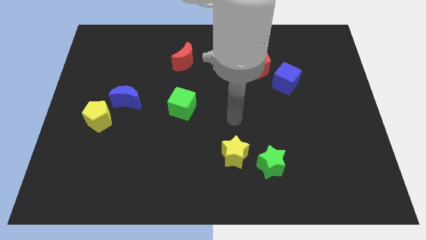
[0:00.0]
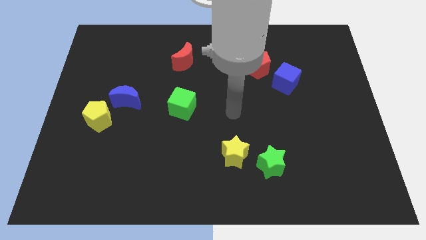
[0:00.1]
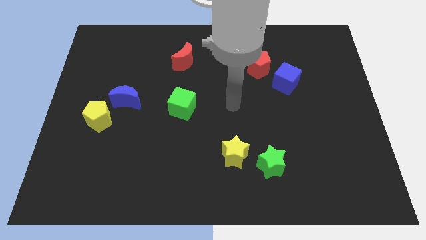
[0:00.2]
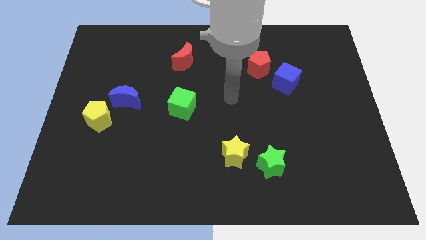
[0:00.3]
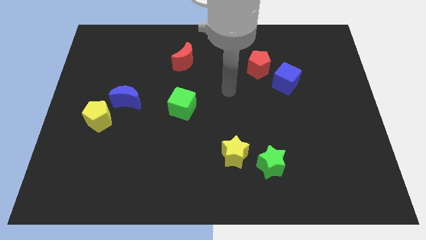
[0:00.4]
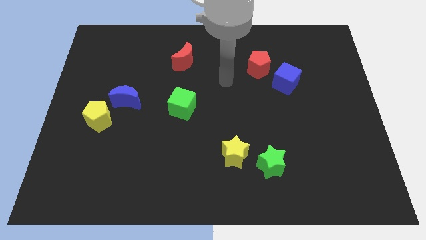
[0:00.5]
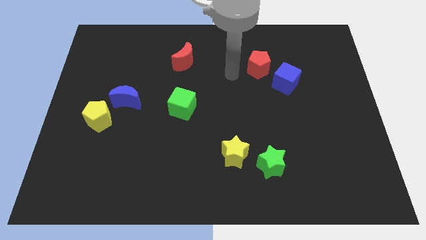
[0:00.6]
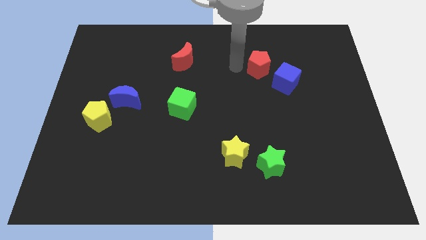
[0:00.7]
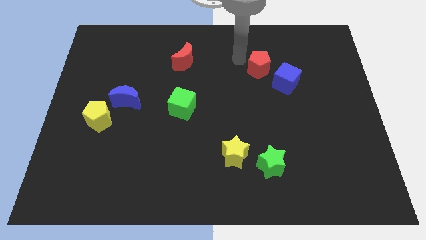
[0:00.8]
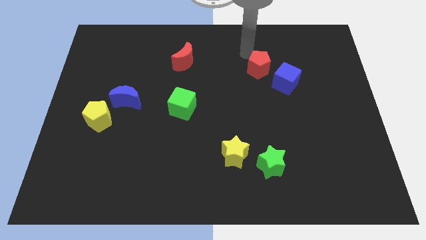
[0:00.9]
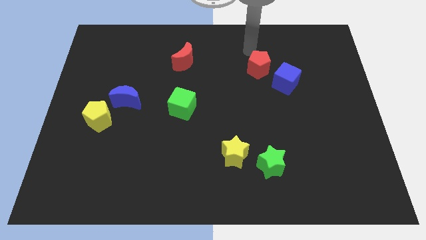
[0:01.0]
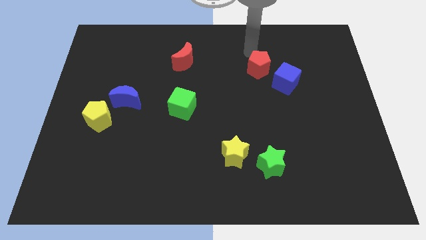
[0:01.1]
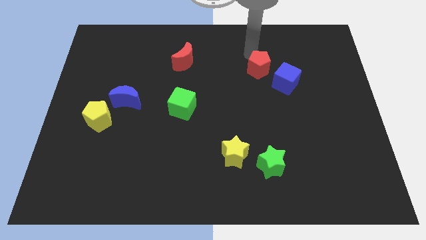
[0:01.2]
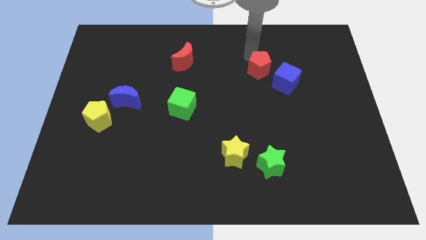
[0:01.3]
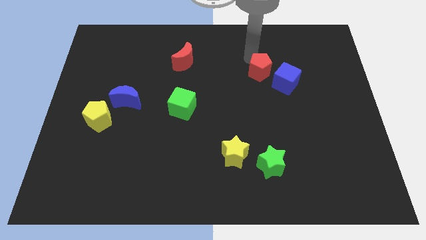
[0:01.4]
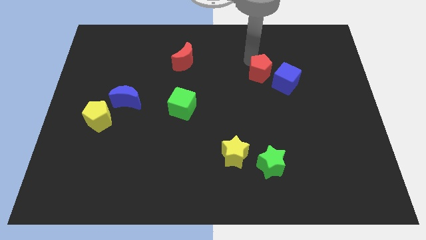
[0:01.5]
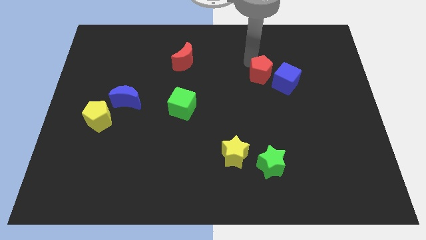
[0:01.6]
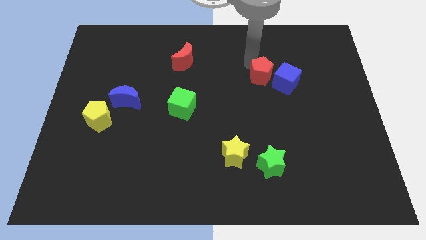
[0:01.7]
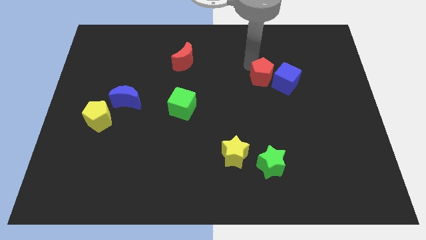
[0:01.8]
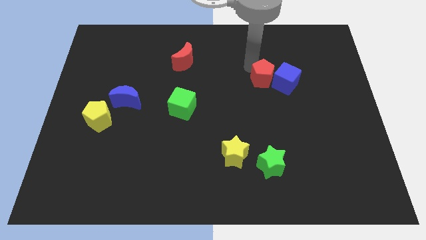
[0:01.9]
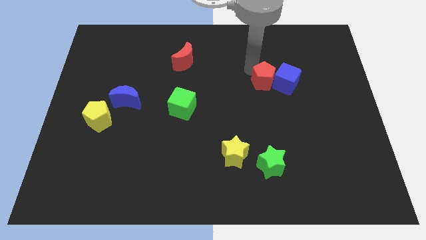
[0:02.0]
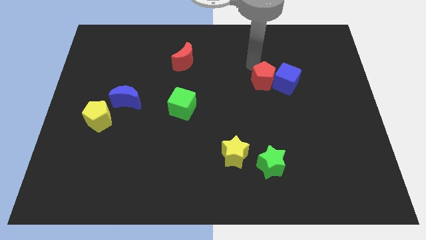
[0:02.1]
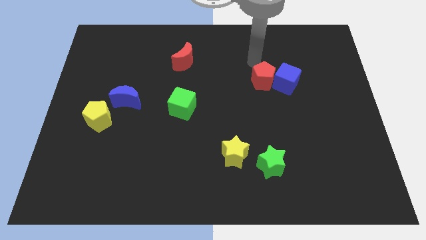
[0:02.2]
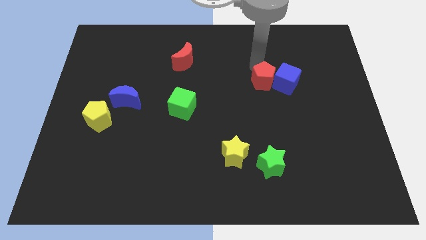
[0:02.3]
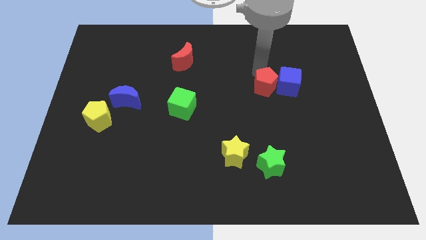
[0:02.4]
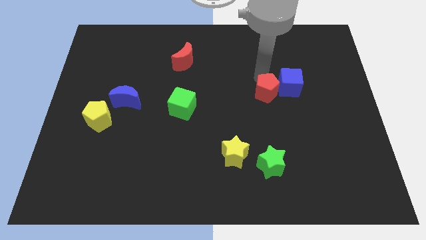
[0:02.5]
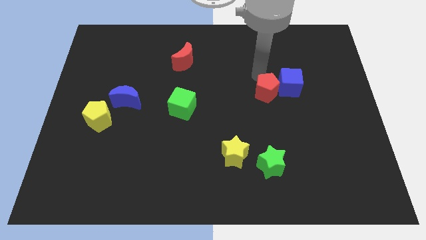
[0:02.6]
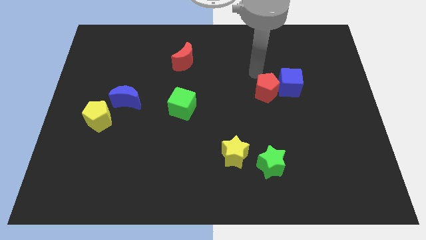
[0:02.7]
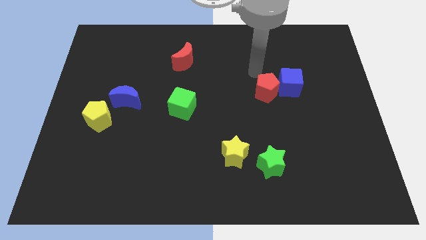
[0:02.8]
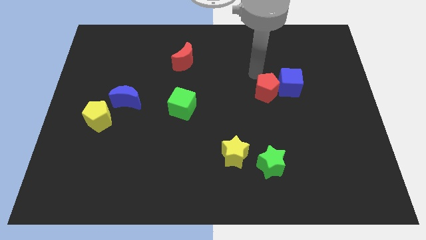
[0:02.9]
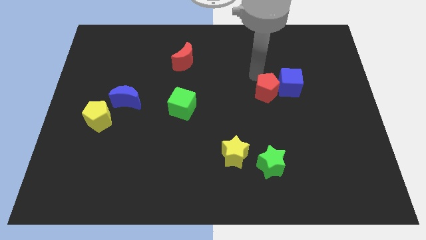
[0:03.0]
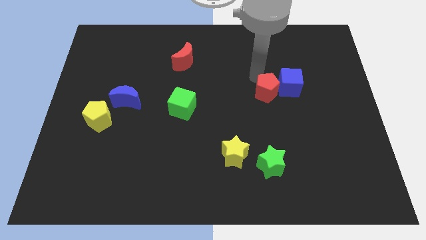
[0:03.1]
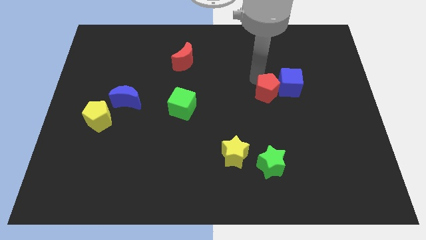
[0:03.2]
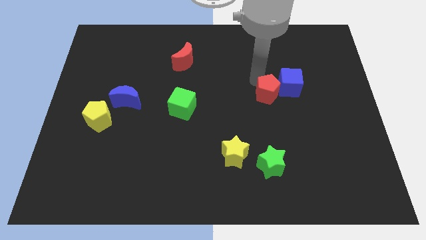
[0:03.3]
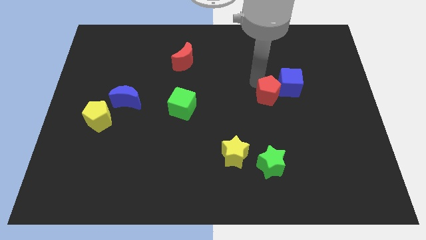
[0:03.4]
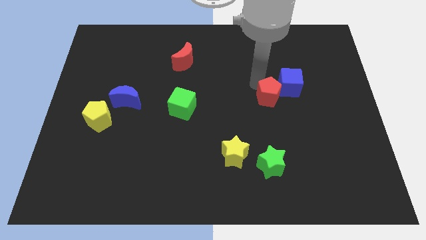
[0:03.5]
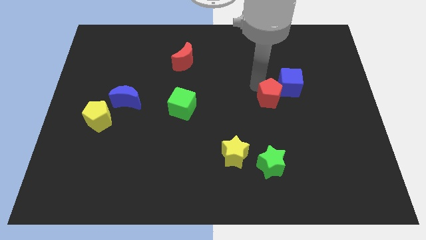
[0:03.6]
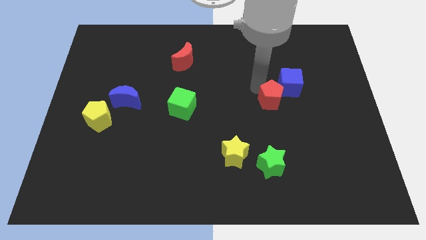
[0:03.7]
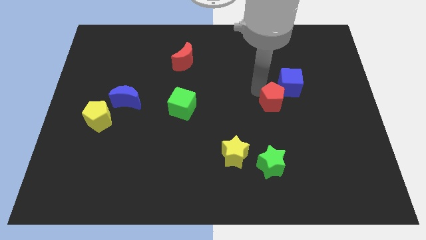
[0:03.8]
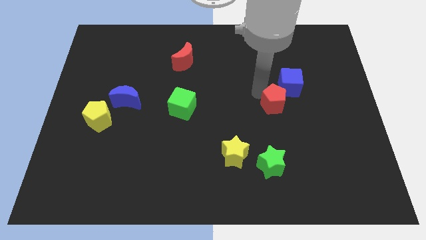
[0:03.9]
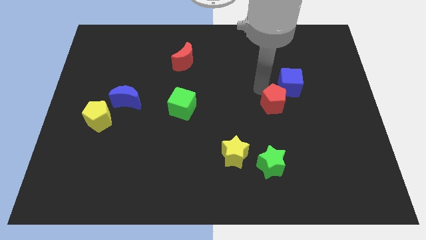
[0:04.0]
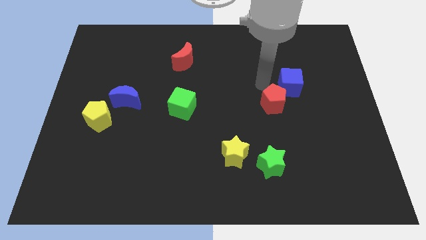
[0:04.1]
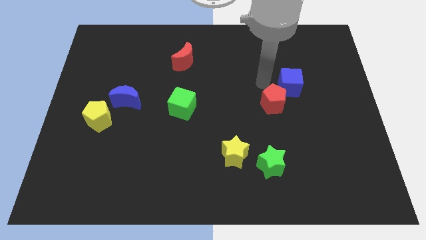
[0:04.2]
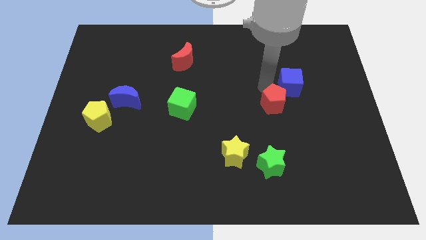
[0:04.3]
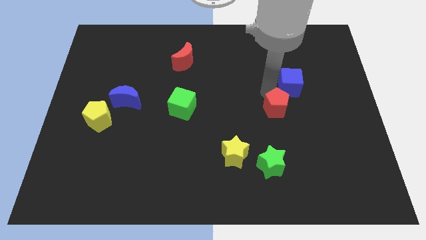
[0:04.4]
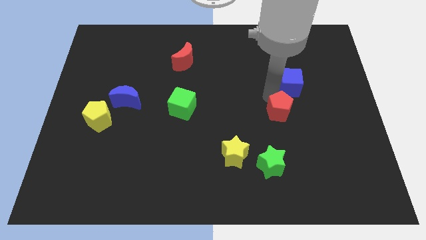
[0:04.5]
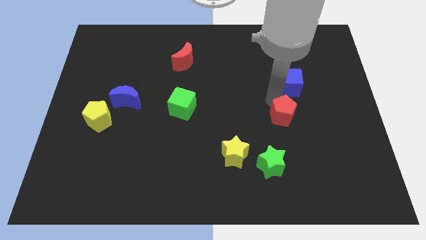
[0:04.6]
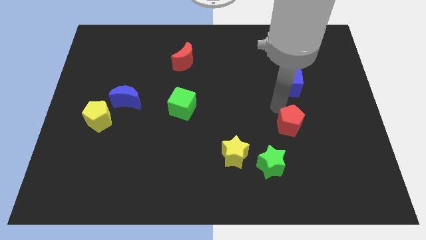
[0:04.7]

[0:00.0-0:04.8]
put the red pentagon diagonally up and to the right of the green star

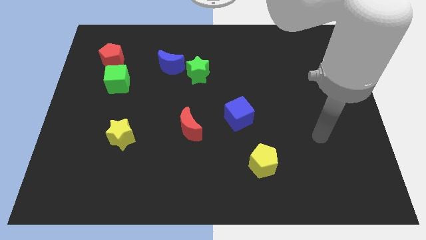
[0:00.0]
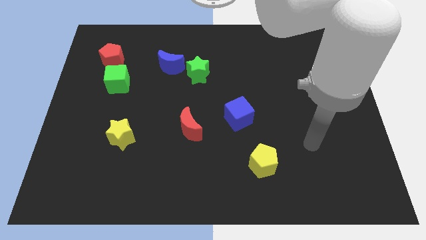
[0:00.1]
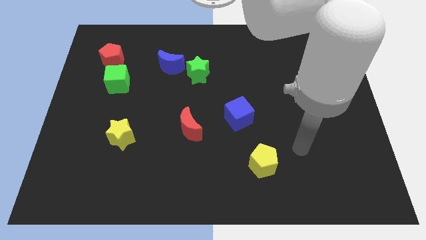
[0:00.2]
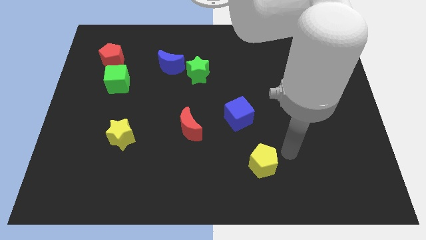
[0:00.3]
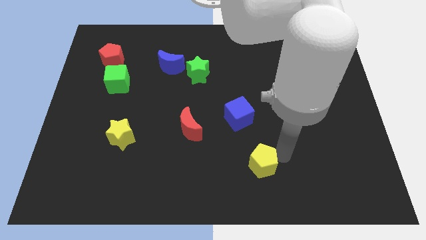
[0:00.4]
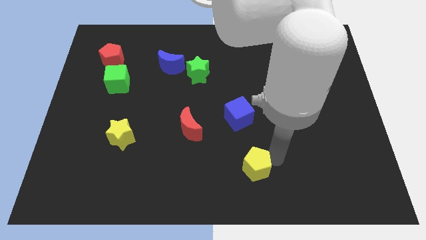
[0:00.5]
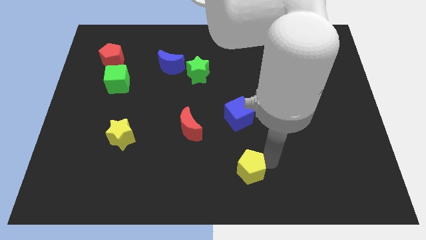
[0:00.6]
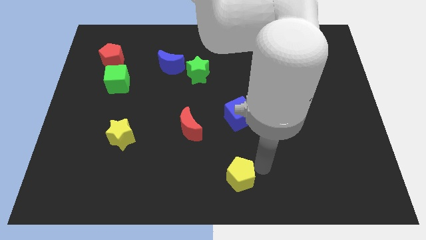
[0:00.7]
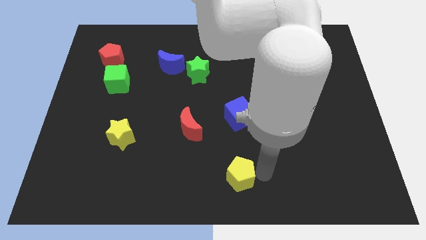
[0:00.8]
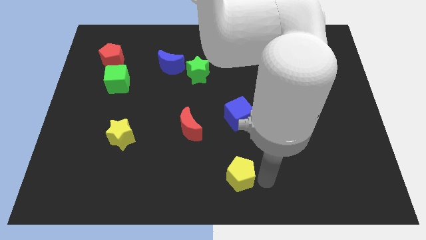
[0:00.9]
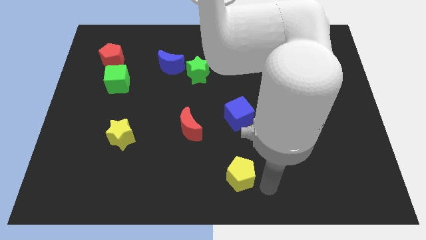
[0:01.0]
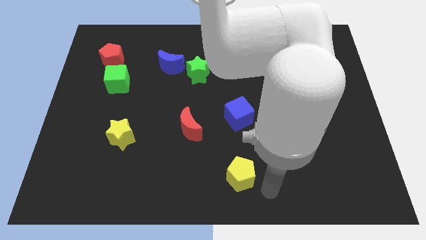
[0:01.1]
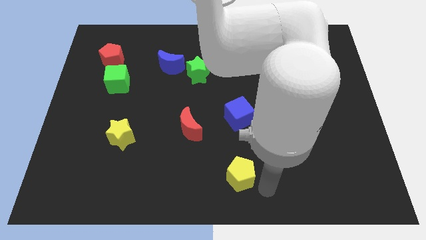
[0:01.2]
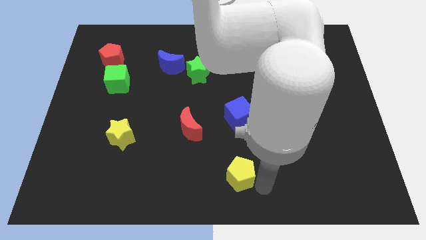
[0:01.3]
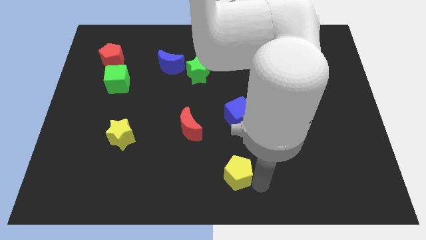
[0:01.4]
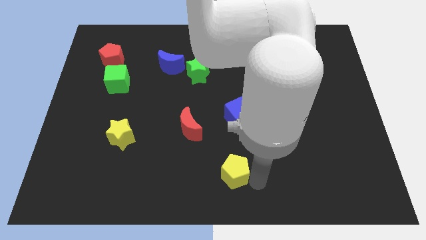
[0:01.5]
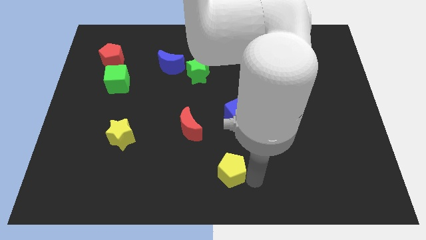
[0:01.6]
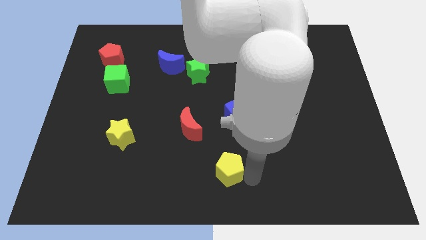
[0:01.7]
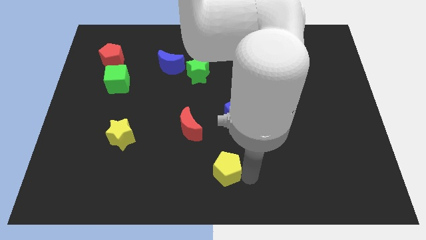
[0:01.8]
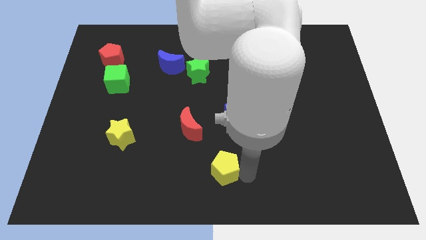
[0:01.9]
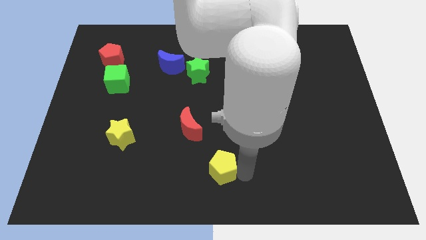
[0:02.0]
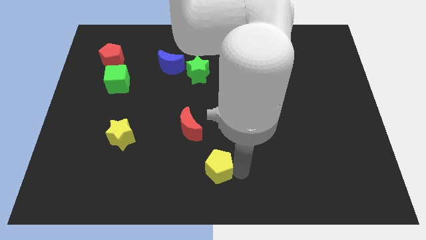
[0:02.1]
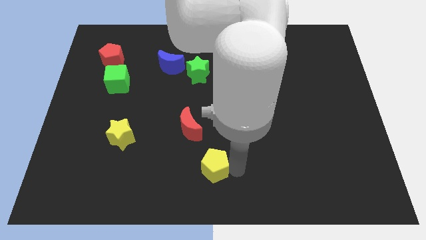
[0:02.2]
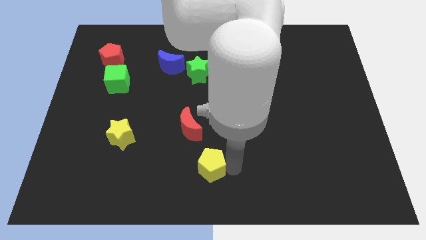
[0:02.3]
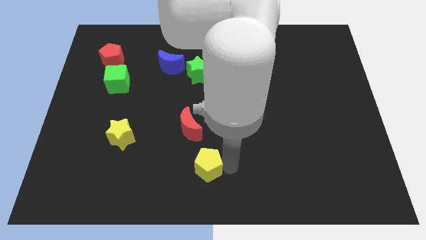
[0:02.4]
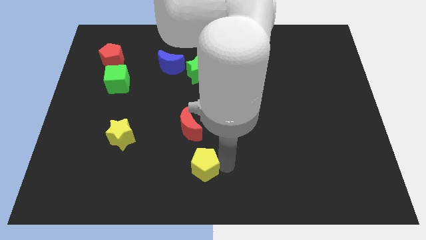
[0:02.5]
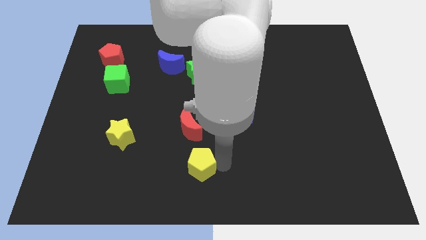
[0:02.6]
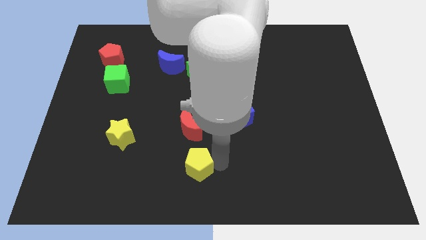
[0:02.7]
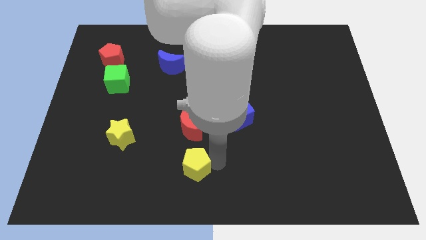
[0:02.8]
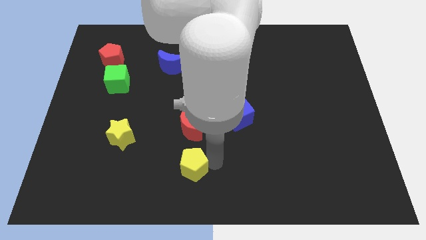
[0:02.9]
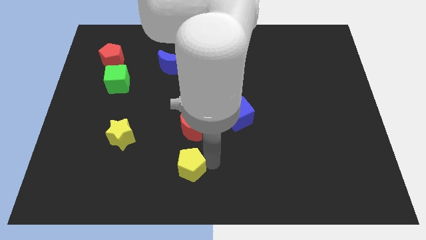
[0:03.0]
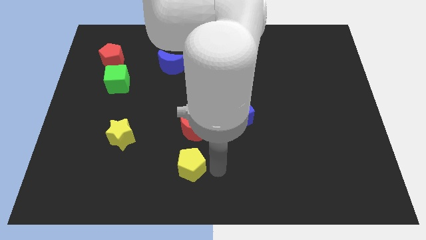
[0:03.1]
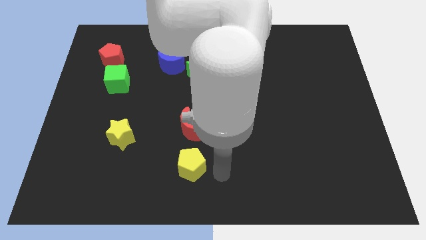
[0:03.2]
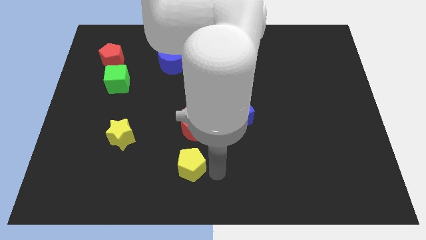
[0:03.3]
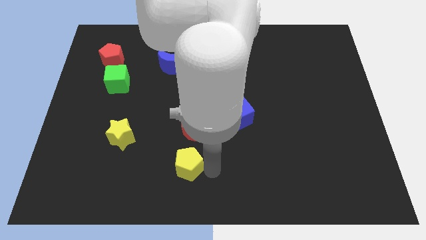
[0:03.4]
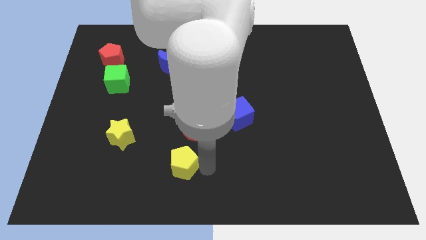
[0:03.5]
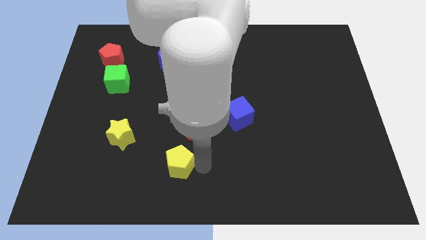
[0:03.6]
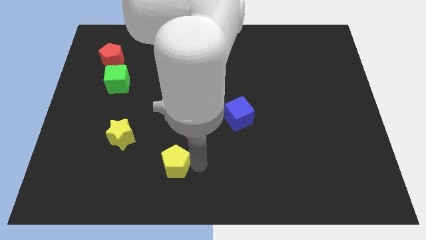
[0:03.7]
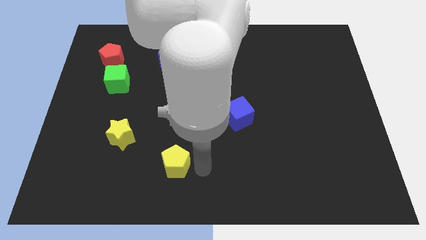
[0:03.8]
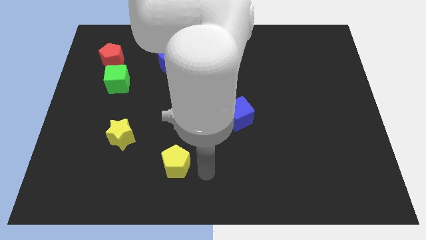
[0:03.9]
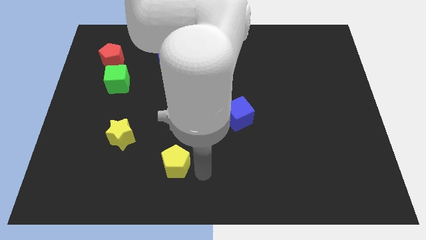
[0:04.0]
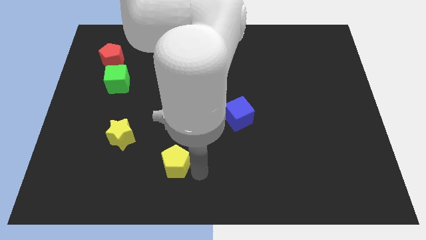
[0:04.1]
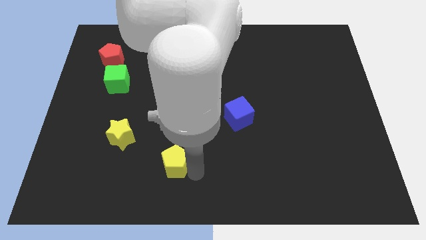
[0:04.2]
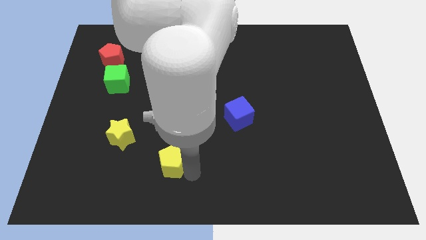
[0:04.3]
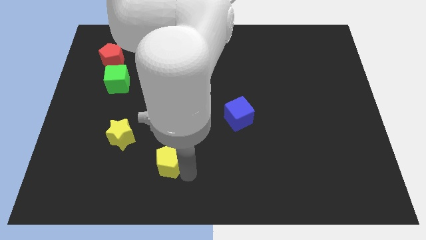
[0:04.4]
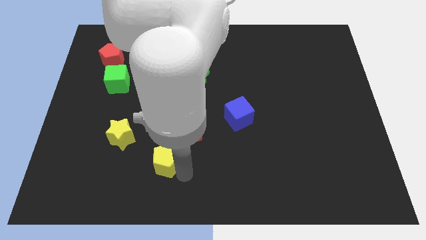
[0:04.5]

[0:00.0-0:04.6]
move the yellow pentagon to the bottom right of the yellow star
